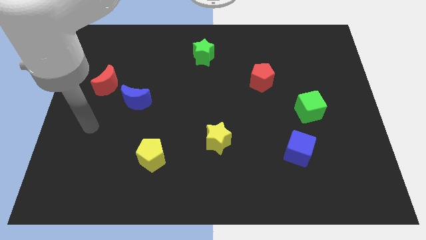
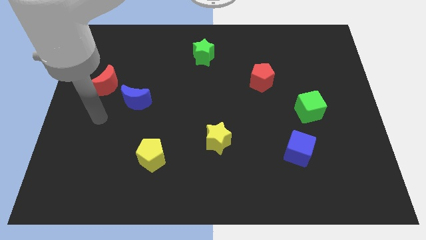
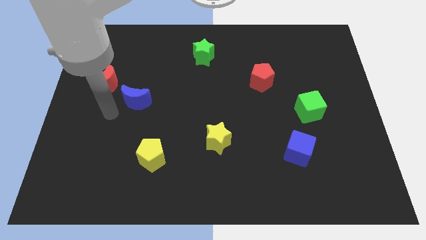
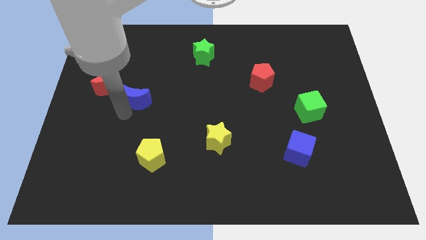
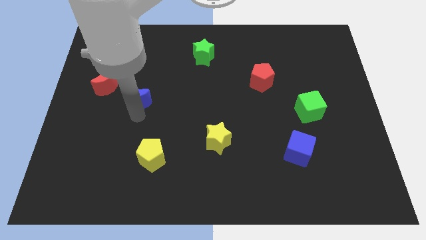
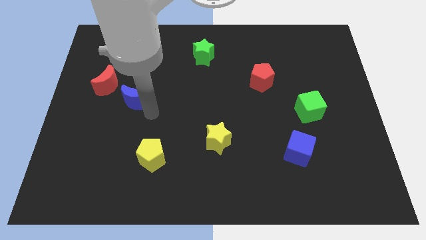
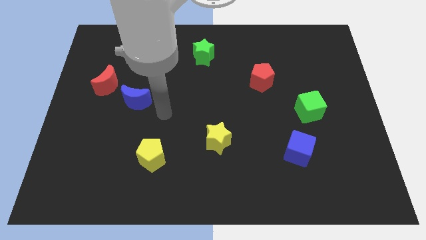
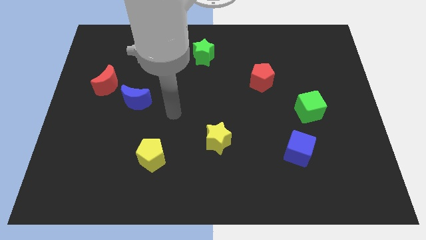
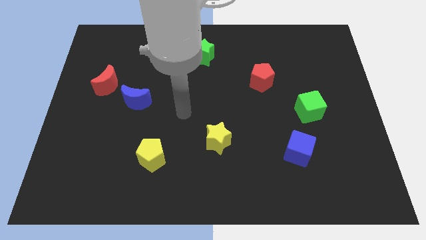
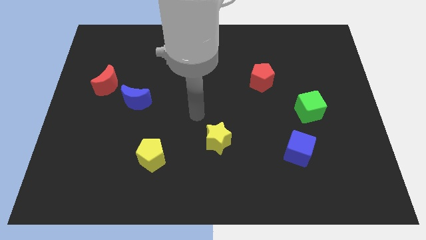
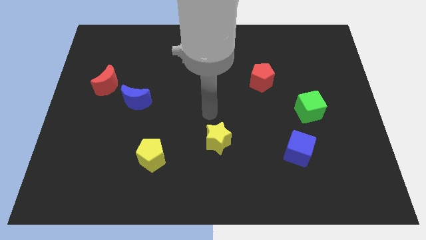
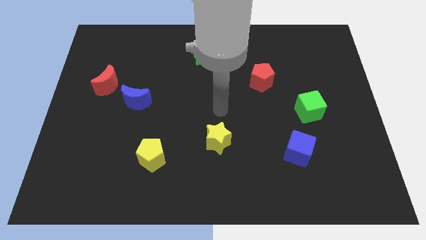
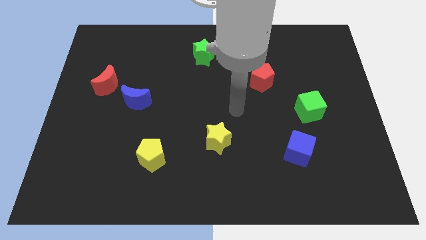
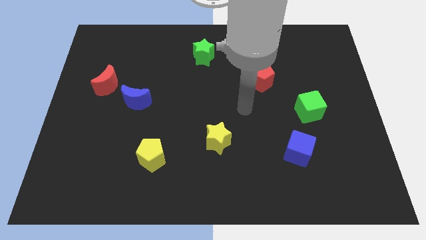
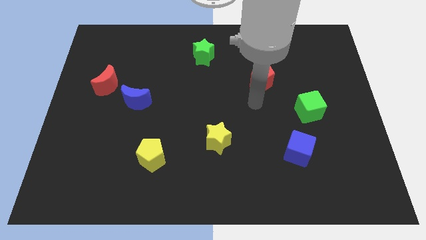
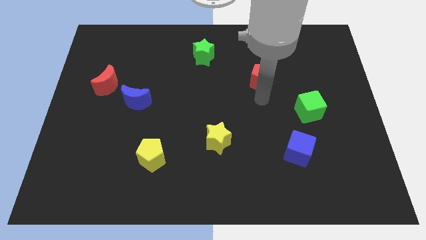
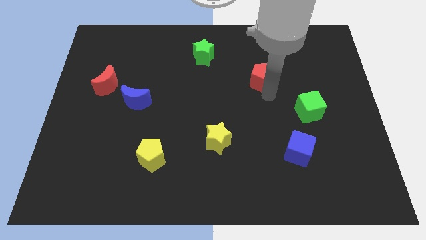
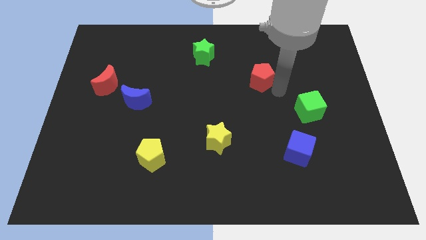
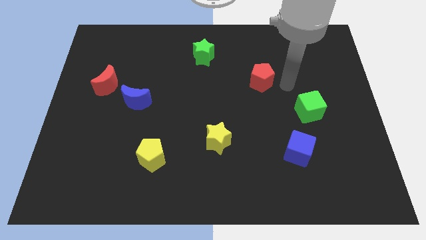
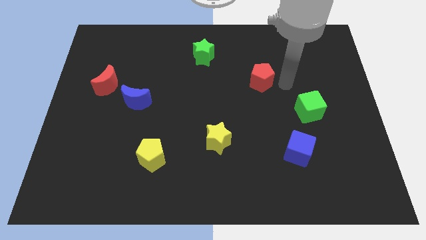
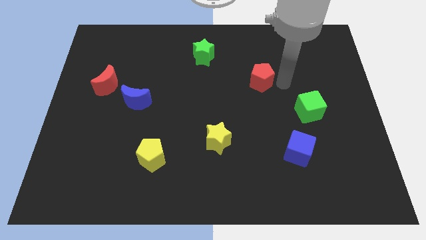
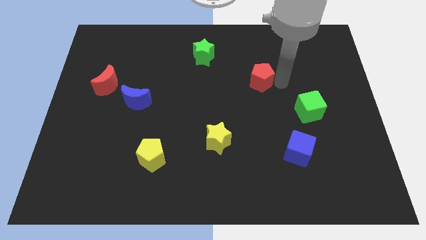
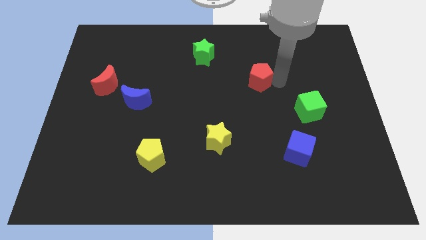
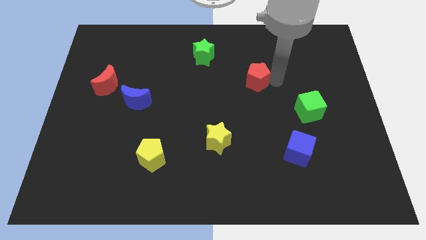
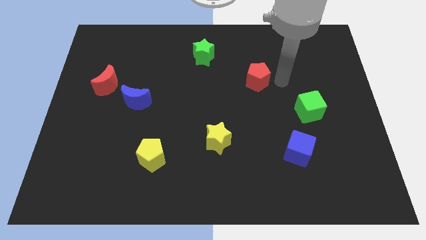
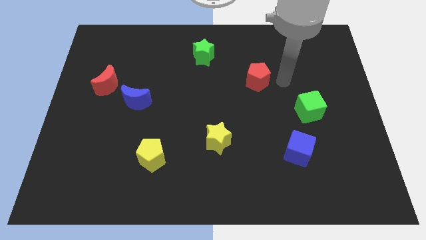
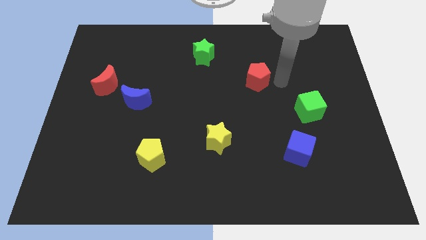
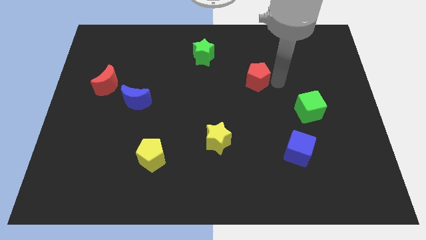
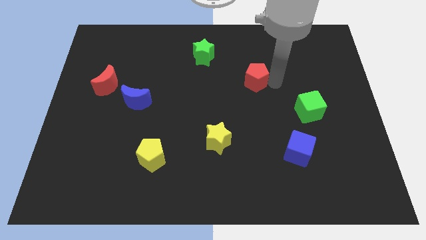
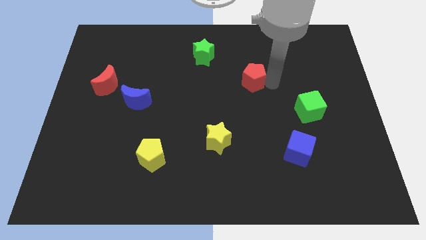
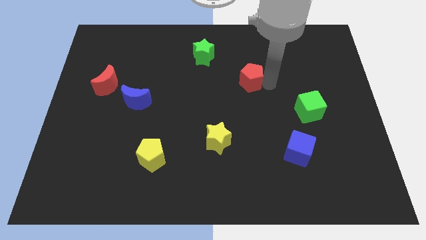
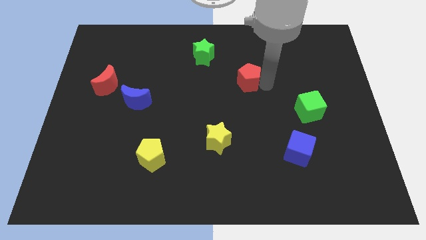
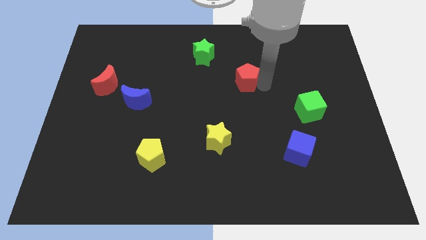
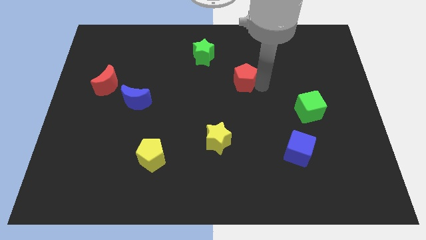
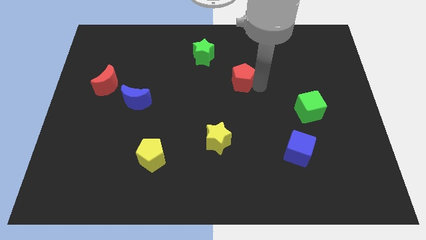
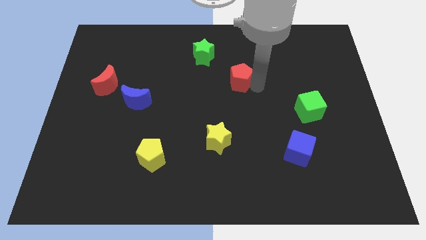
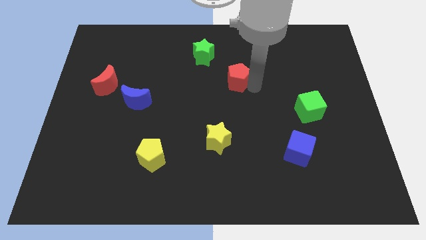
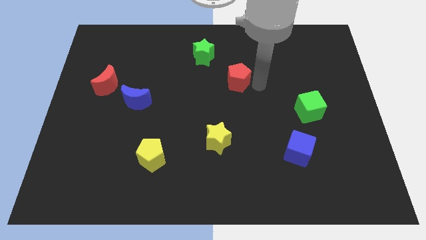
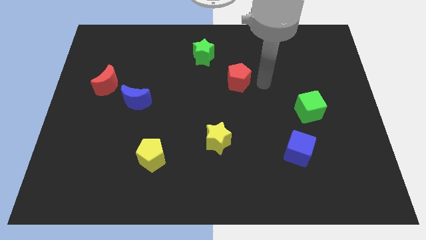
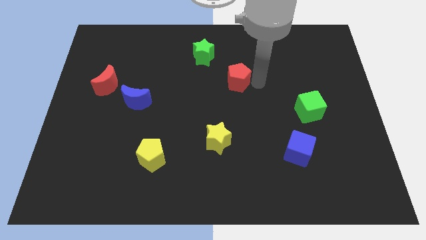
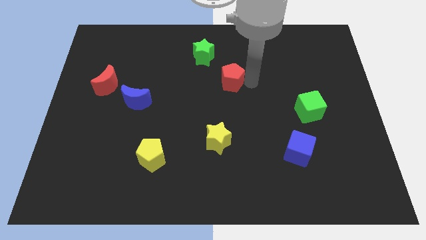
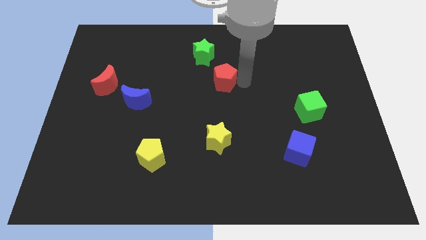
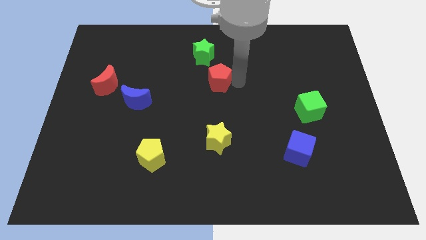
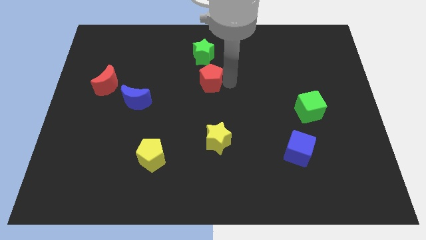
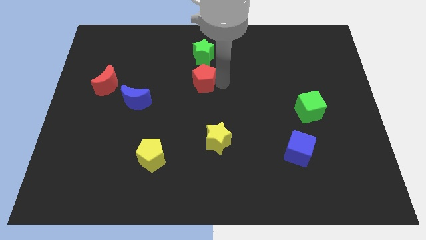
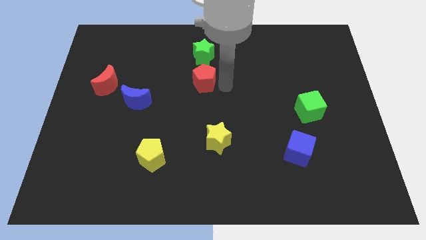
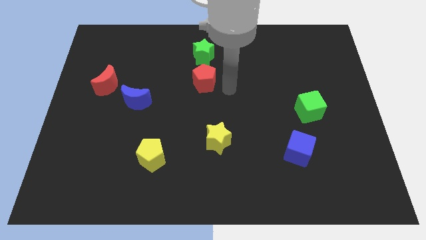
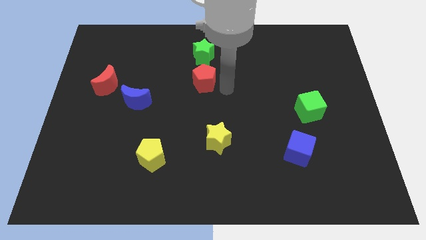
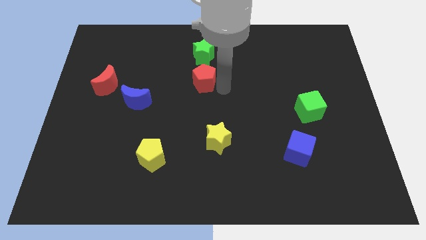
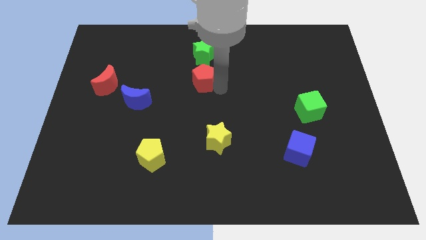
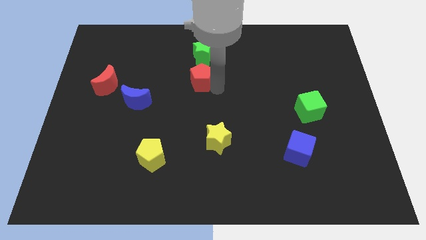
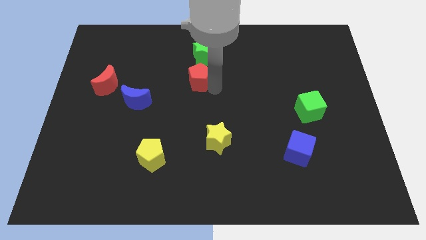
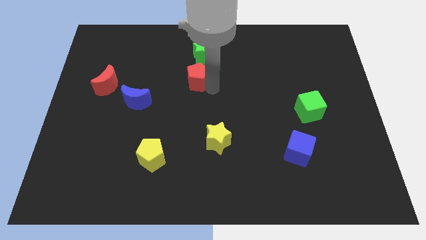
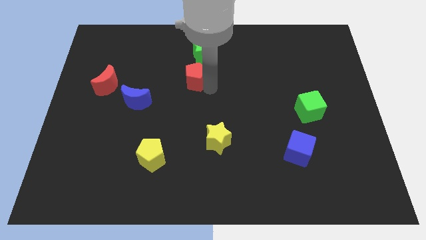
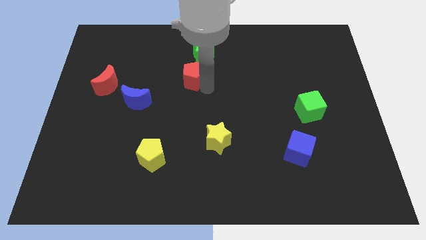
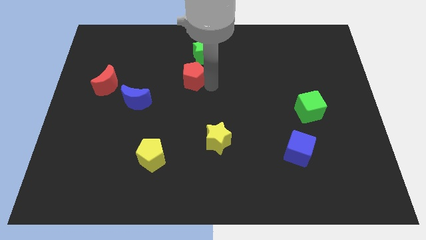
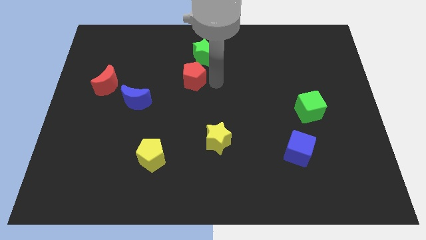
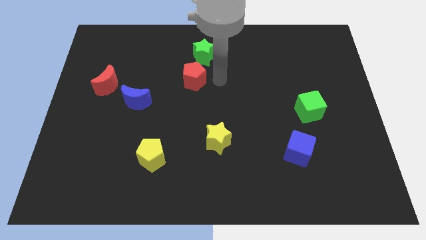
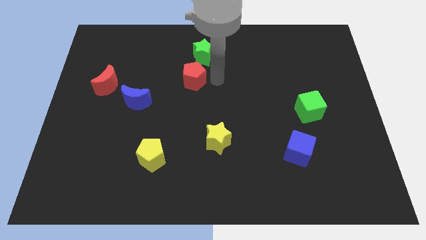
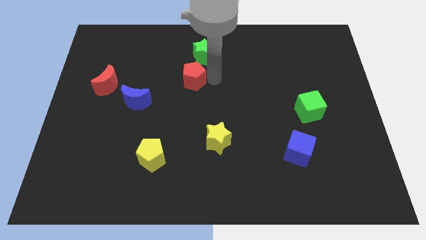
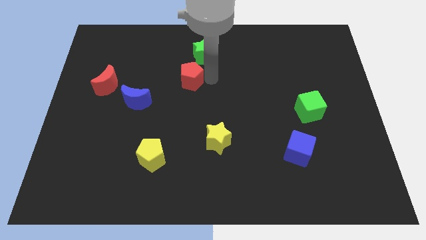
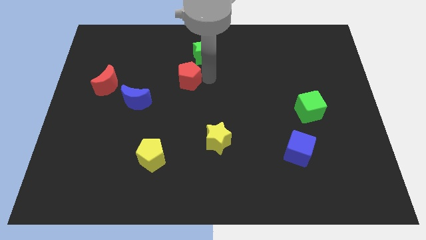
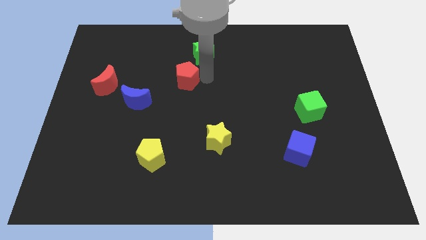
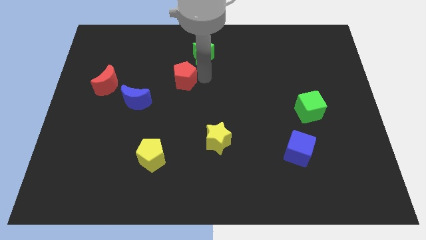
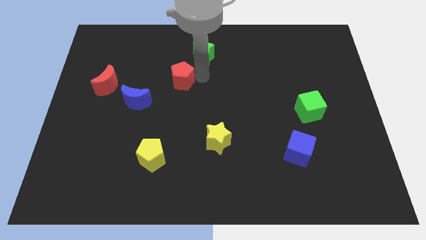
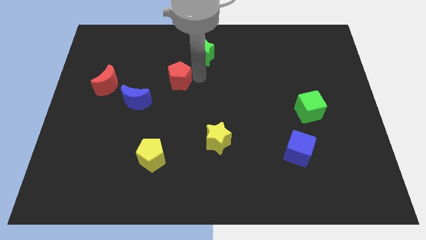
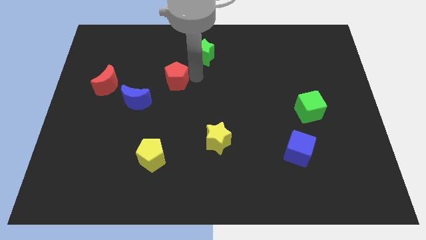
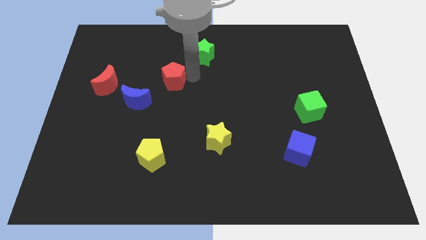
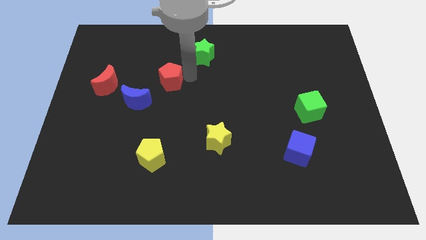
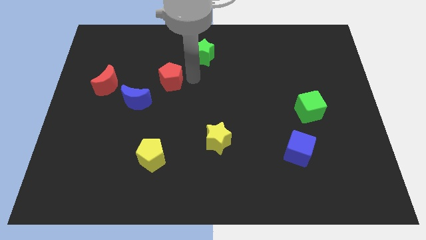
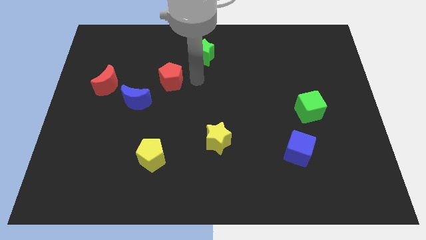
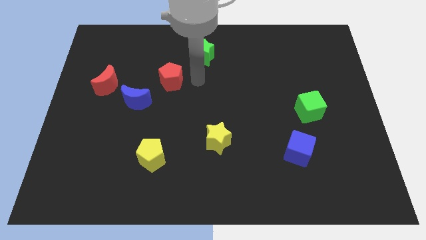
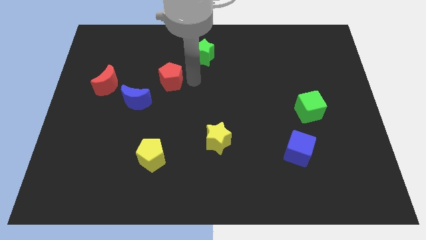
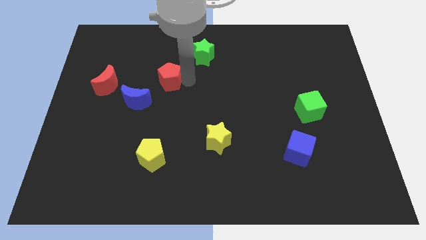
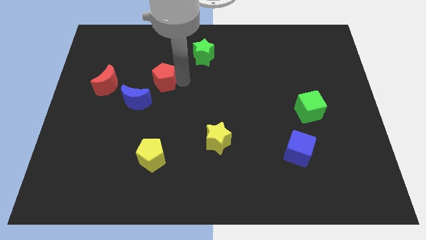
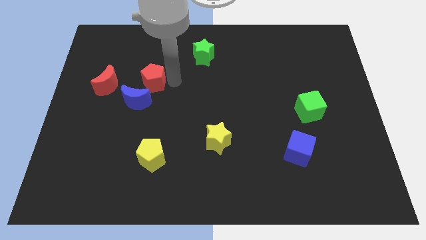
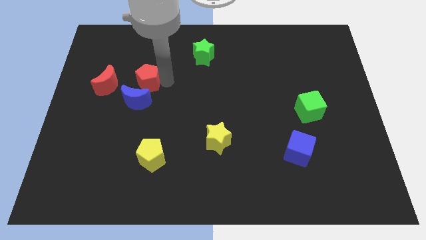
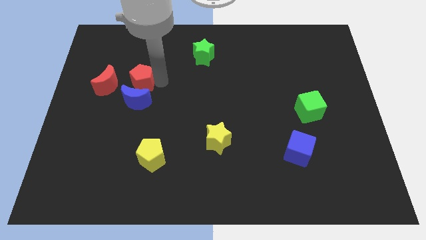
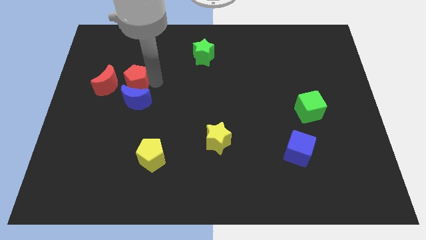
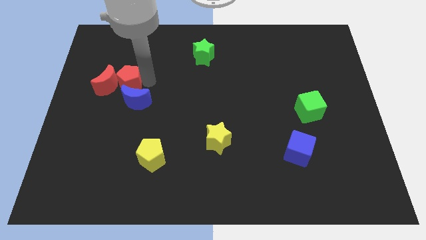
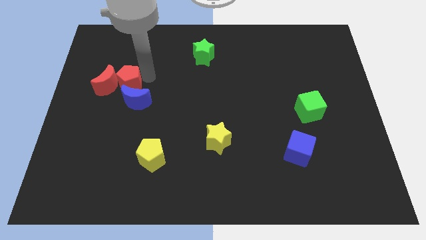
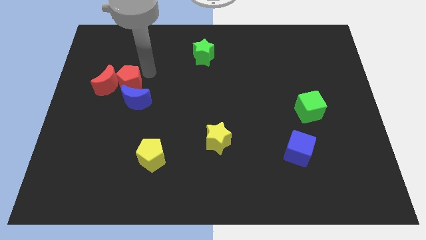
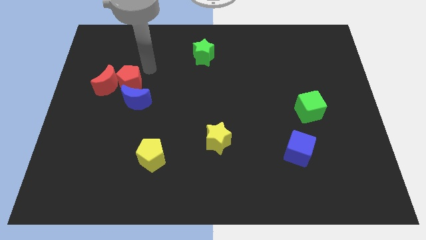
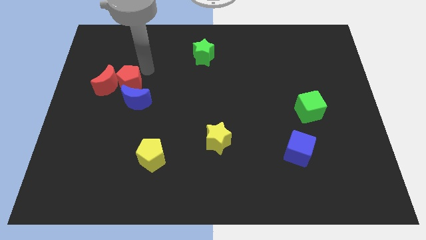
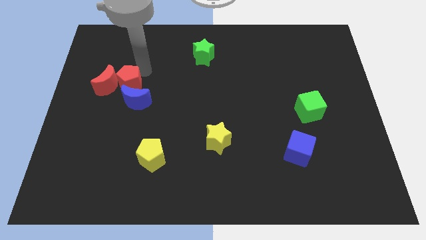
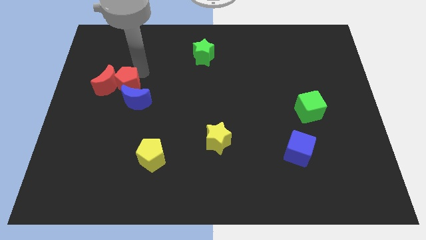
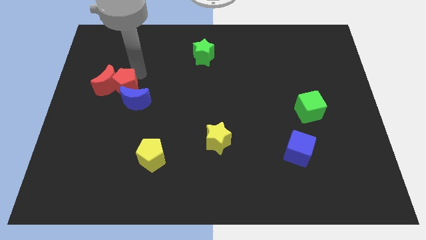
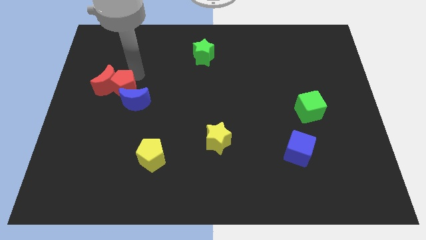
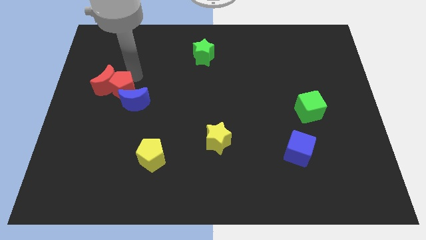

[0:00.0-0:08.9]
put the red pentagon to the left side of the blue moon
